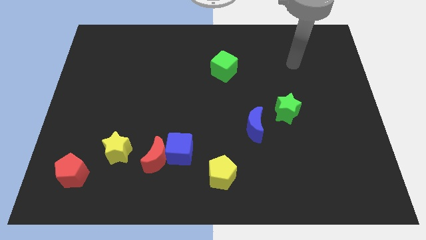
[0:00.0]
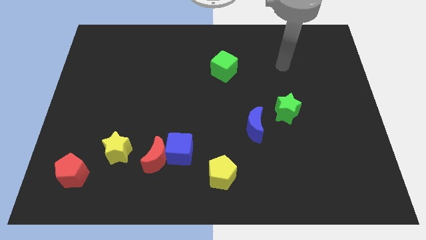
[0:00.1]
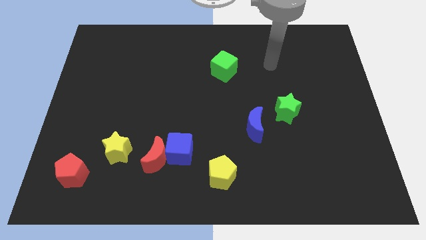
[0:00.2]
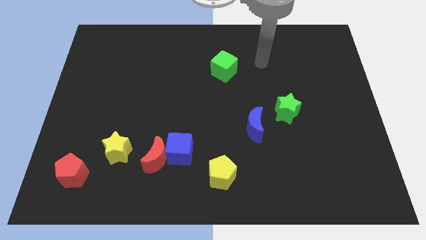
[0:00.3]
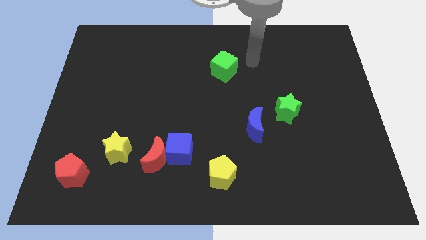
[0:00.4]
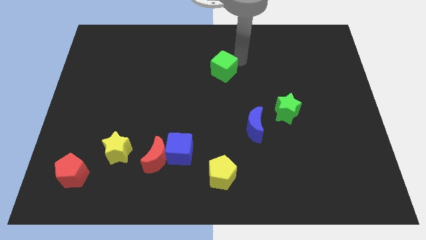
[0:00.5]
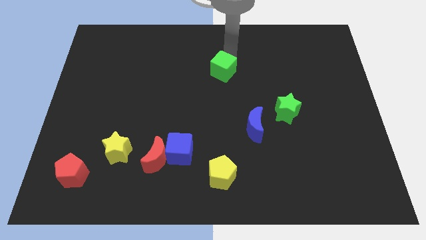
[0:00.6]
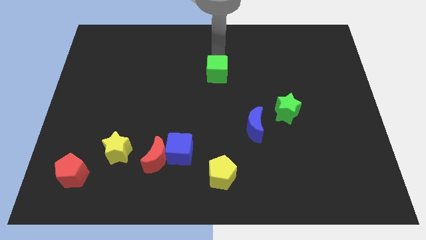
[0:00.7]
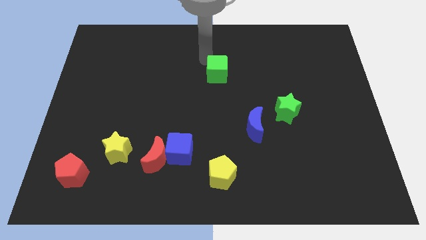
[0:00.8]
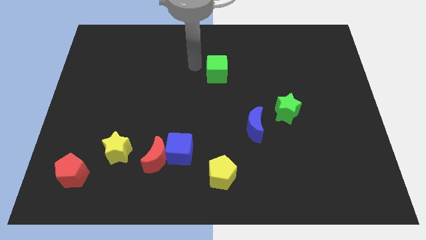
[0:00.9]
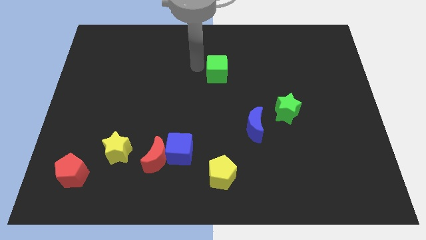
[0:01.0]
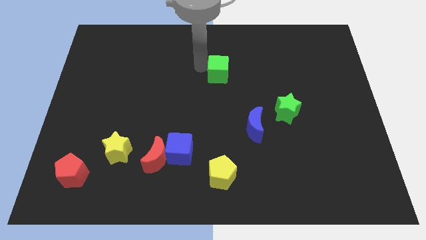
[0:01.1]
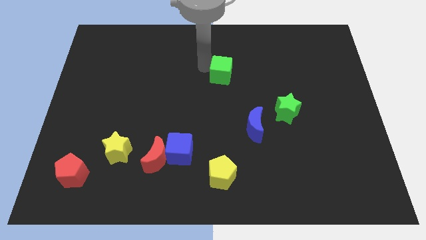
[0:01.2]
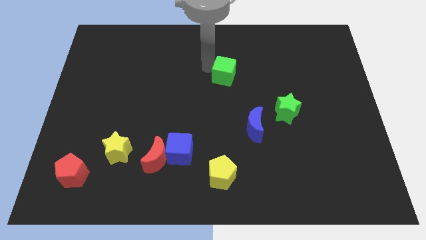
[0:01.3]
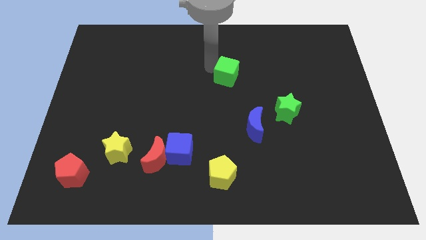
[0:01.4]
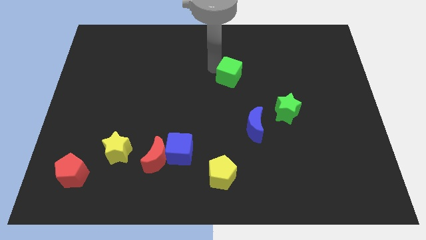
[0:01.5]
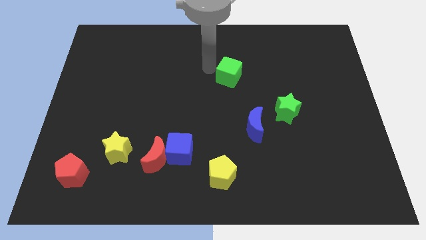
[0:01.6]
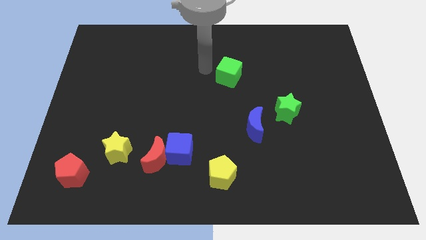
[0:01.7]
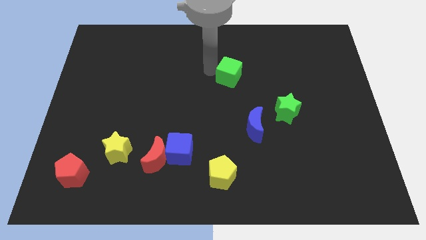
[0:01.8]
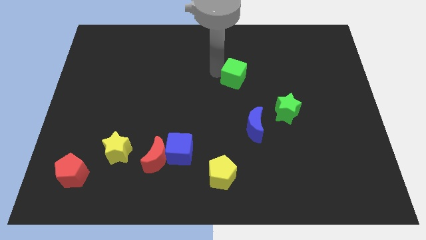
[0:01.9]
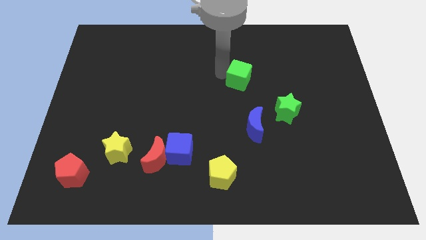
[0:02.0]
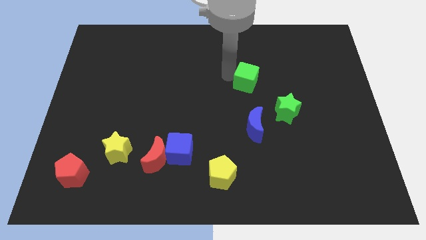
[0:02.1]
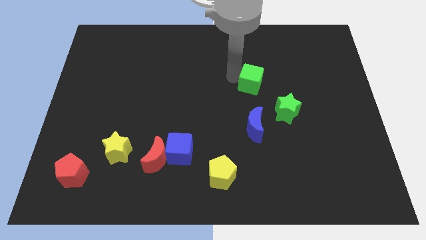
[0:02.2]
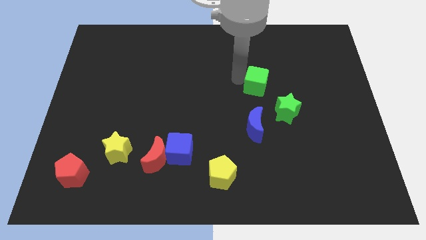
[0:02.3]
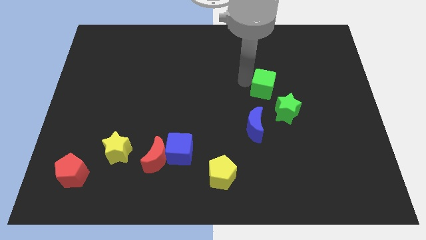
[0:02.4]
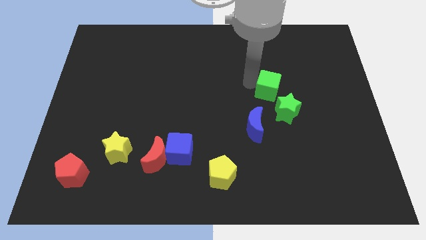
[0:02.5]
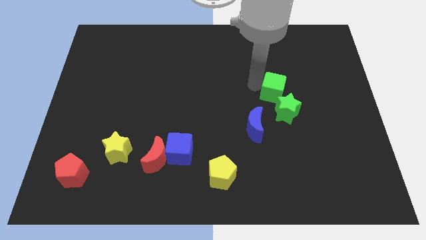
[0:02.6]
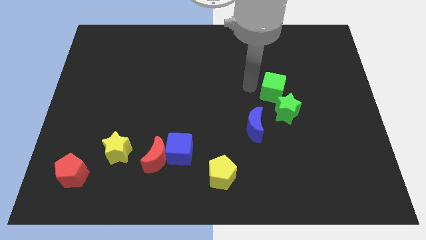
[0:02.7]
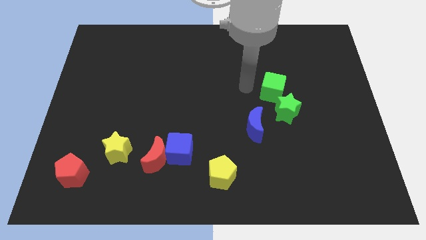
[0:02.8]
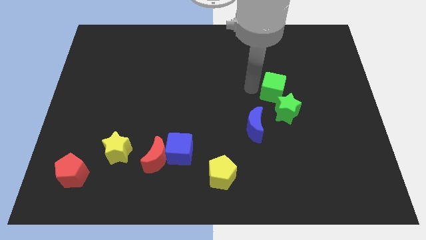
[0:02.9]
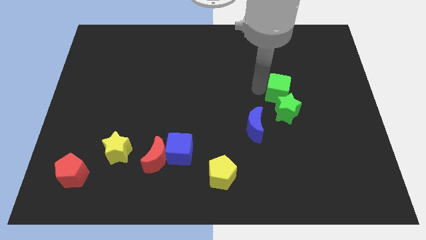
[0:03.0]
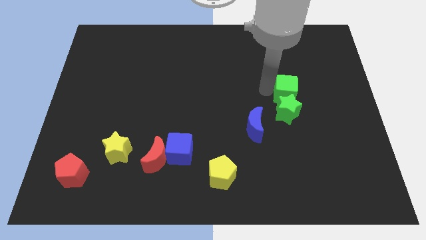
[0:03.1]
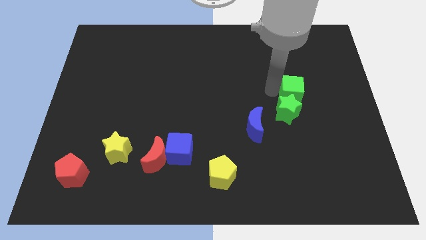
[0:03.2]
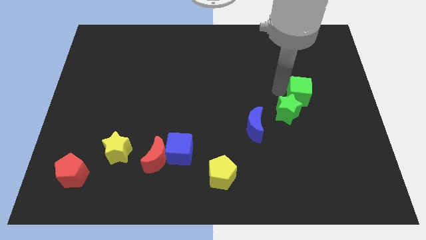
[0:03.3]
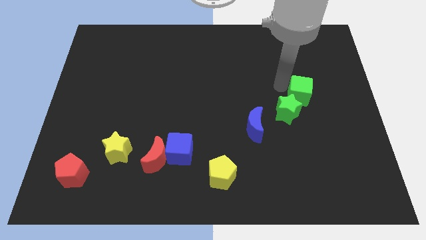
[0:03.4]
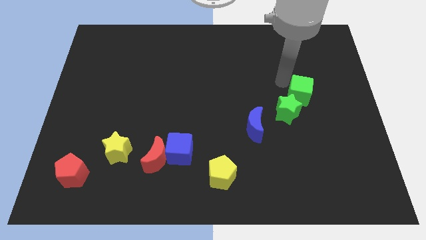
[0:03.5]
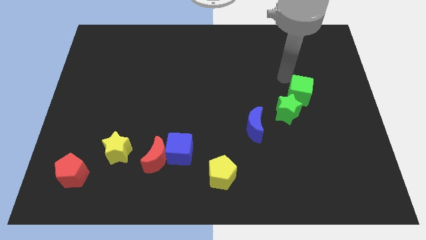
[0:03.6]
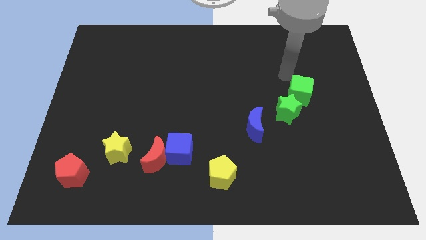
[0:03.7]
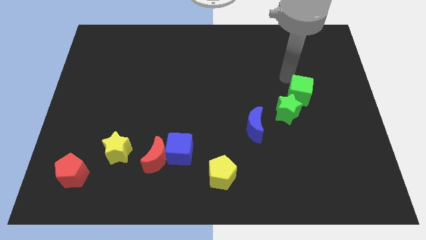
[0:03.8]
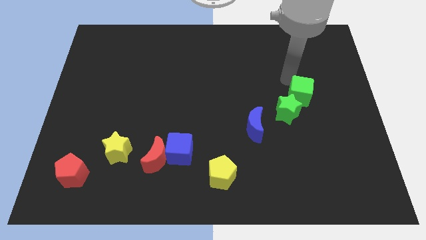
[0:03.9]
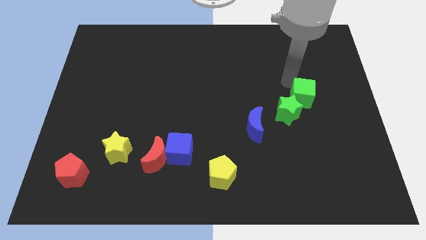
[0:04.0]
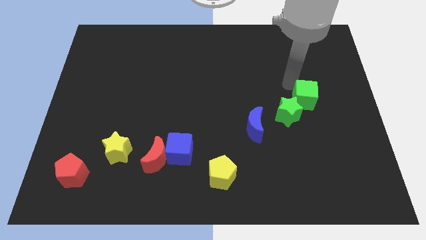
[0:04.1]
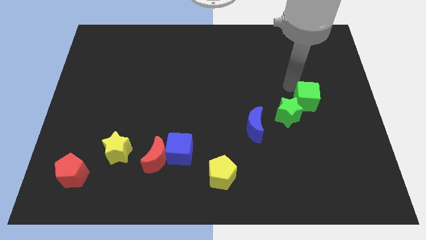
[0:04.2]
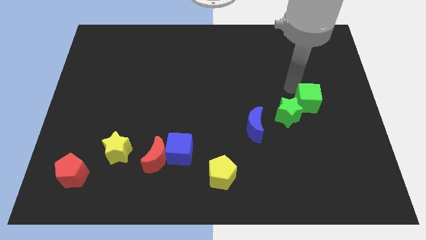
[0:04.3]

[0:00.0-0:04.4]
move the green cube down and to the right diagonally

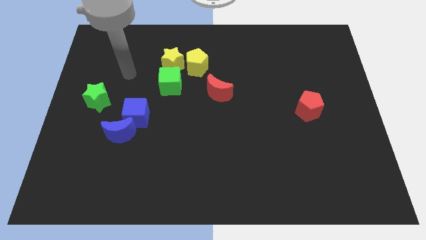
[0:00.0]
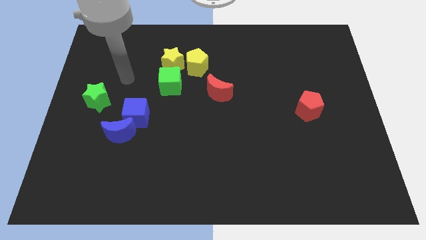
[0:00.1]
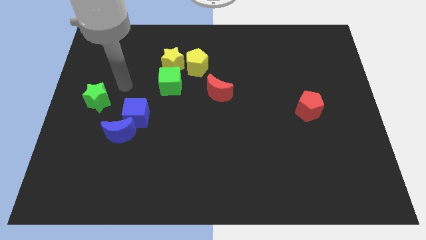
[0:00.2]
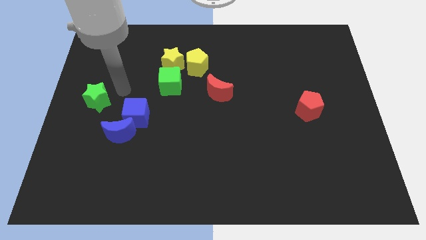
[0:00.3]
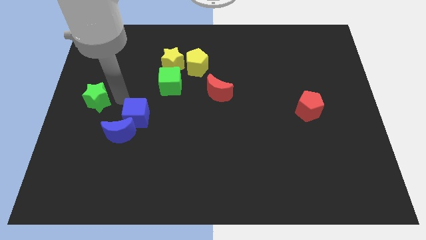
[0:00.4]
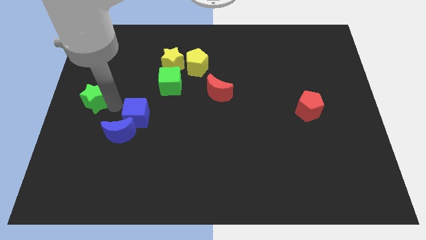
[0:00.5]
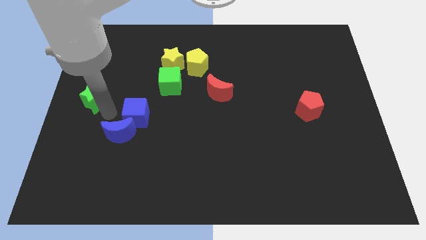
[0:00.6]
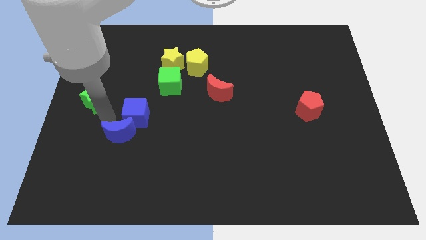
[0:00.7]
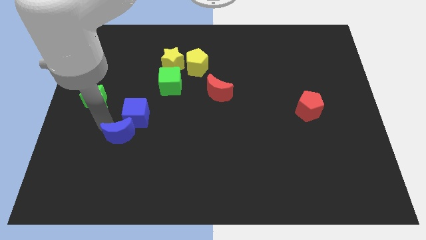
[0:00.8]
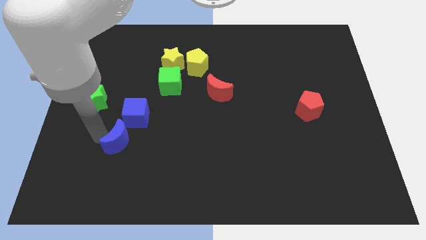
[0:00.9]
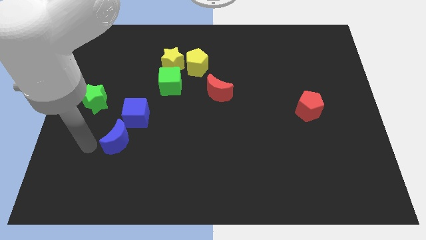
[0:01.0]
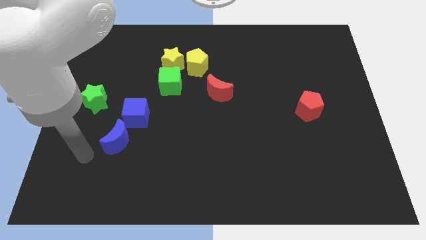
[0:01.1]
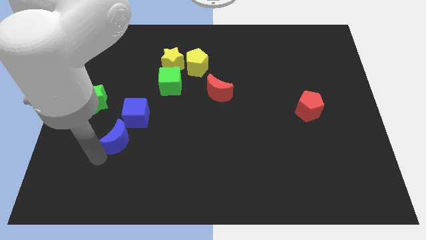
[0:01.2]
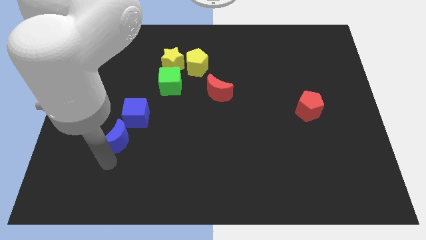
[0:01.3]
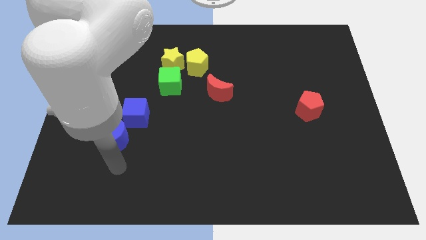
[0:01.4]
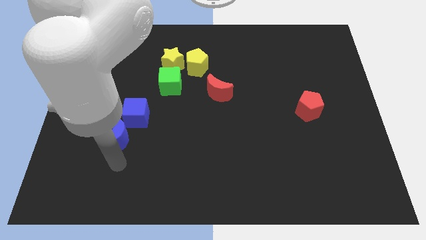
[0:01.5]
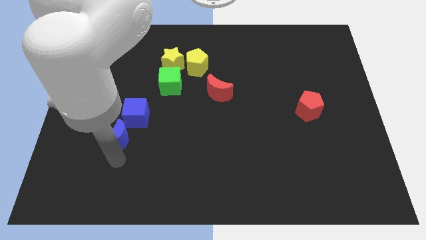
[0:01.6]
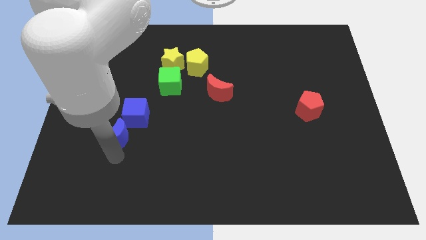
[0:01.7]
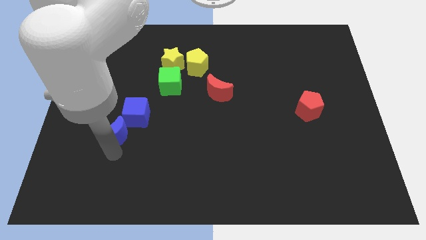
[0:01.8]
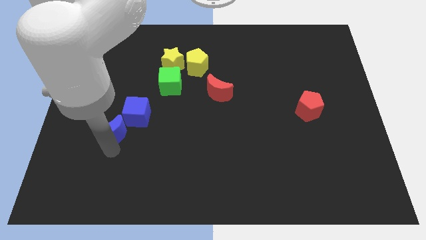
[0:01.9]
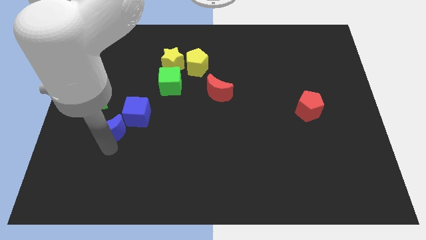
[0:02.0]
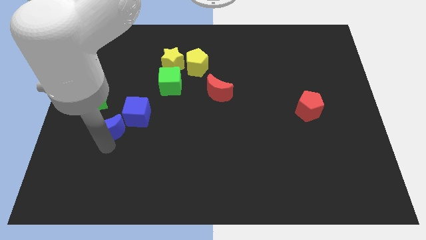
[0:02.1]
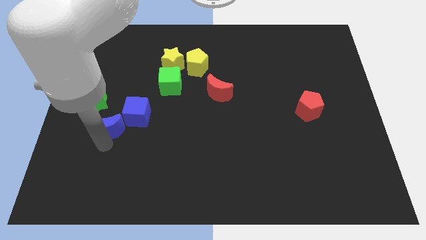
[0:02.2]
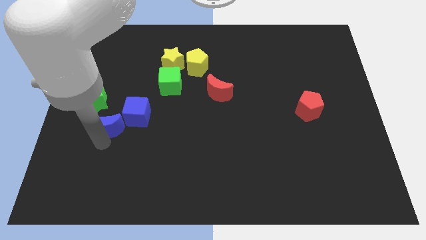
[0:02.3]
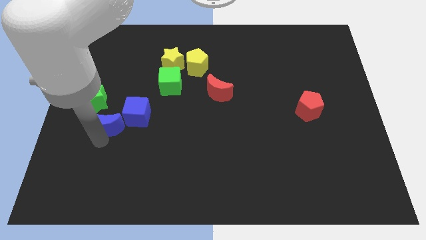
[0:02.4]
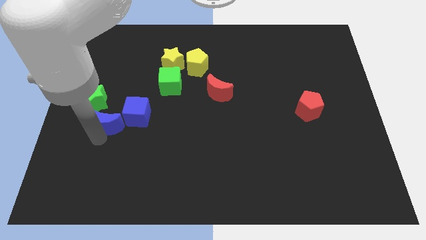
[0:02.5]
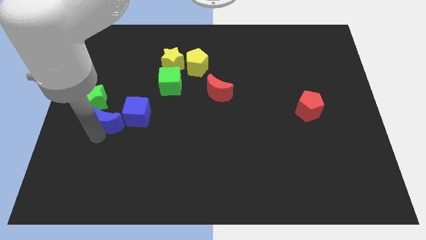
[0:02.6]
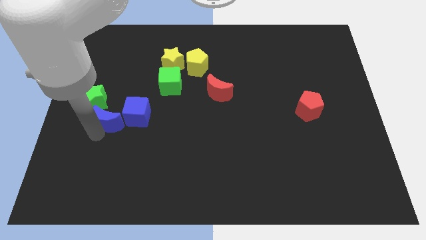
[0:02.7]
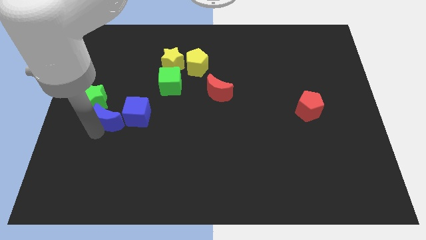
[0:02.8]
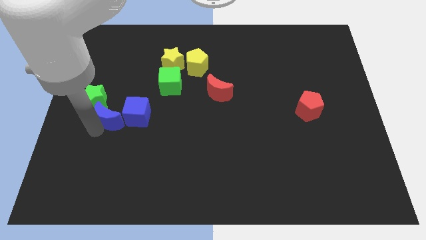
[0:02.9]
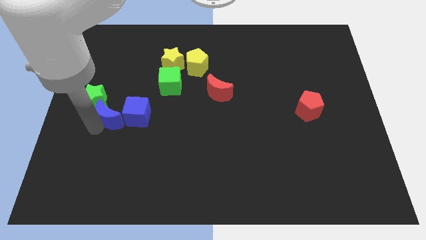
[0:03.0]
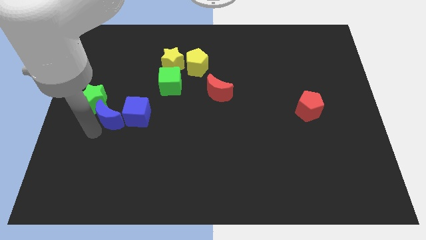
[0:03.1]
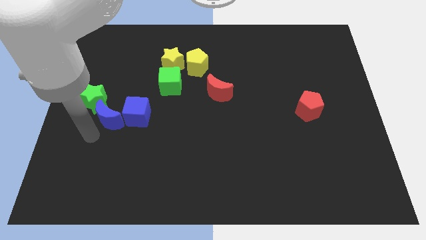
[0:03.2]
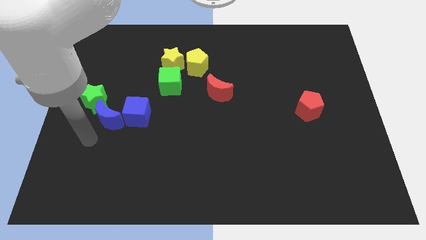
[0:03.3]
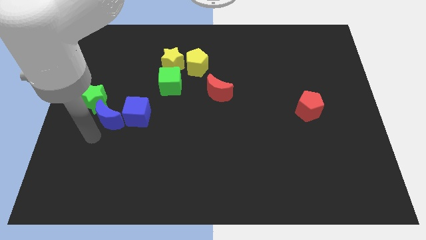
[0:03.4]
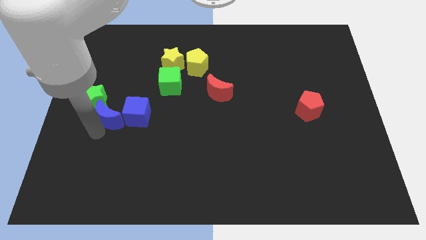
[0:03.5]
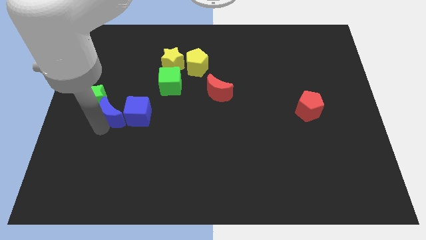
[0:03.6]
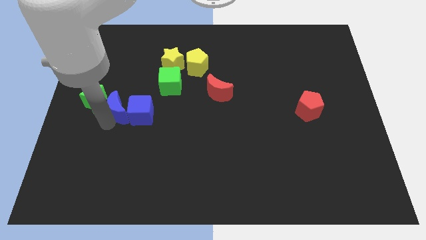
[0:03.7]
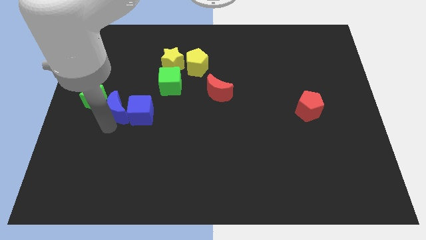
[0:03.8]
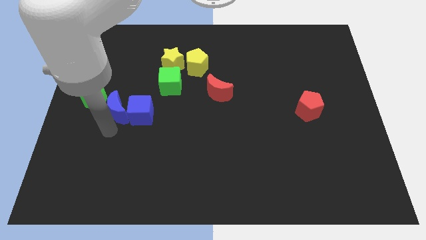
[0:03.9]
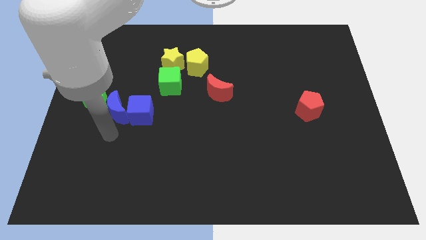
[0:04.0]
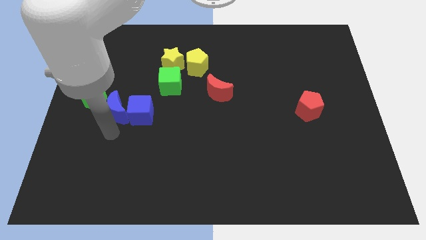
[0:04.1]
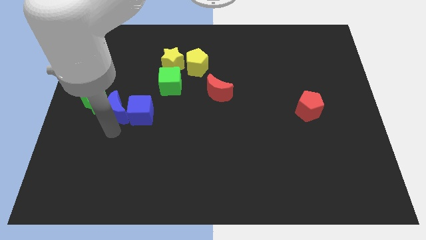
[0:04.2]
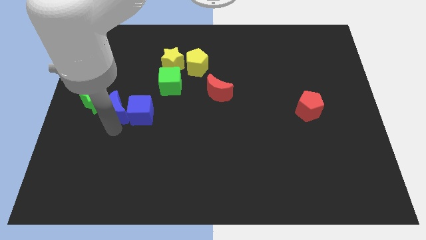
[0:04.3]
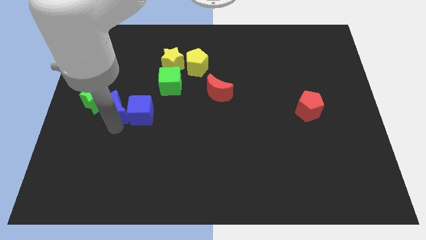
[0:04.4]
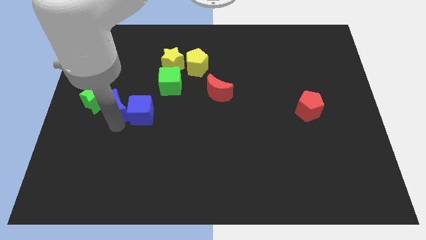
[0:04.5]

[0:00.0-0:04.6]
slightly move the blue moon upwards
